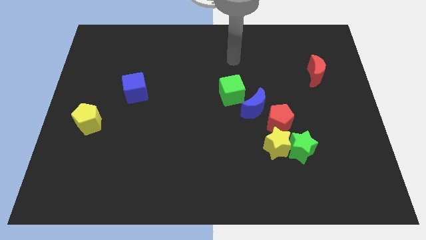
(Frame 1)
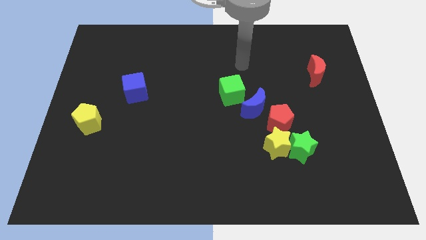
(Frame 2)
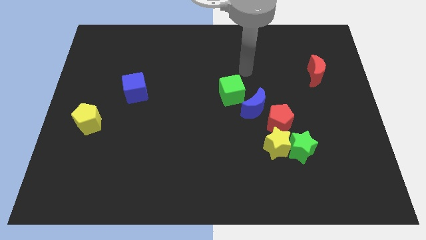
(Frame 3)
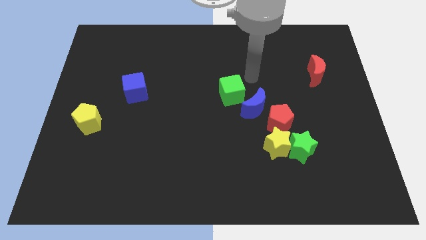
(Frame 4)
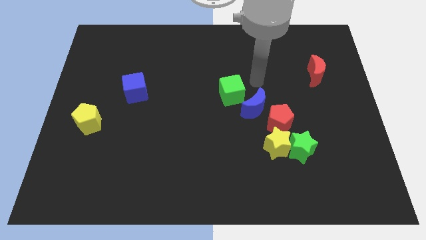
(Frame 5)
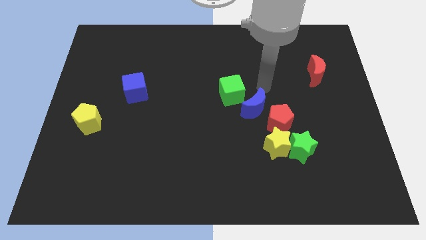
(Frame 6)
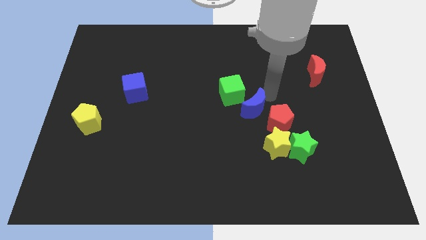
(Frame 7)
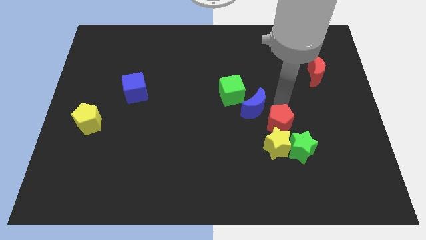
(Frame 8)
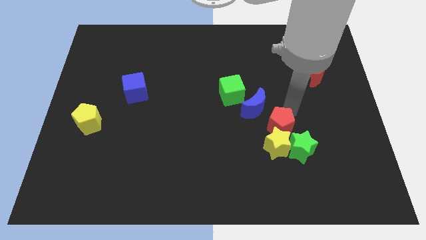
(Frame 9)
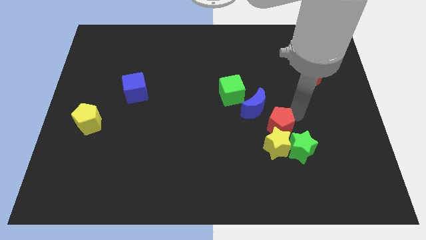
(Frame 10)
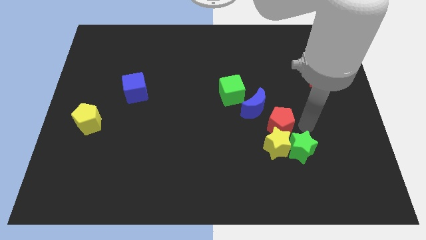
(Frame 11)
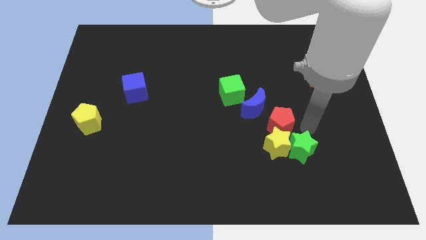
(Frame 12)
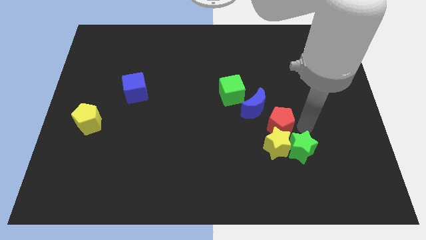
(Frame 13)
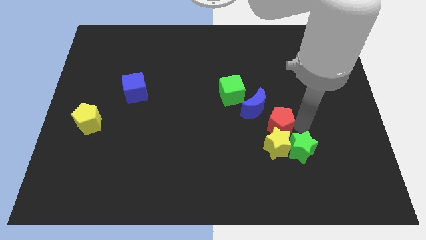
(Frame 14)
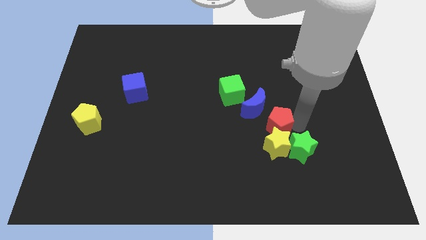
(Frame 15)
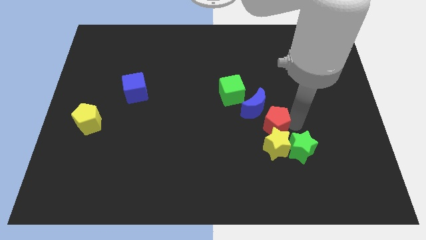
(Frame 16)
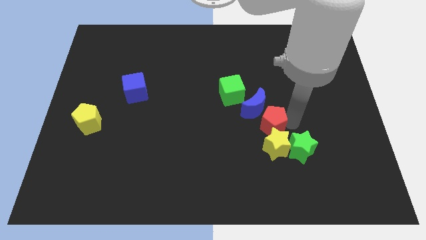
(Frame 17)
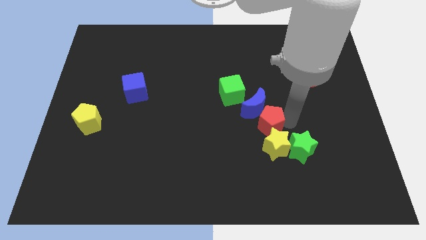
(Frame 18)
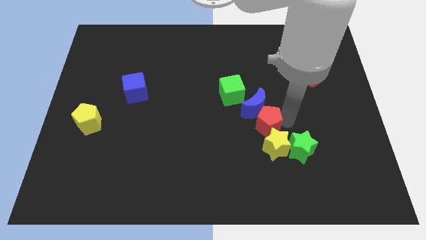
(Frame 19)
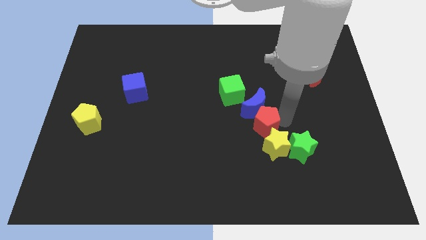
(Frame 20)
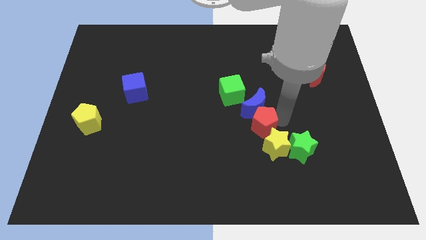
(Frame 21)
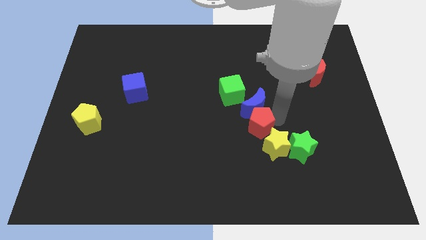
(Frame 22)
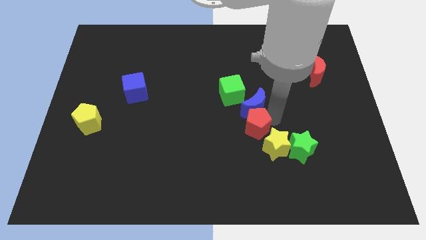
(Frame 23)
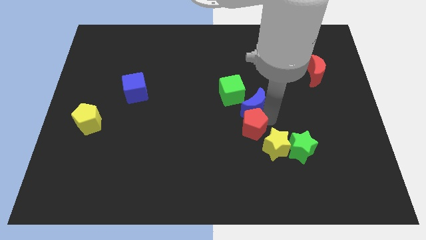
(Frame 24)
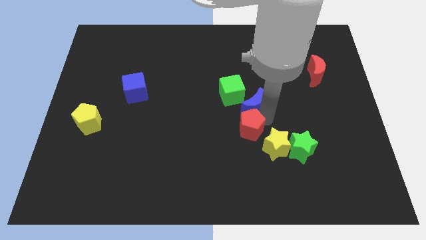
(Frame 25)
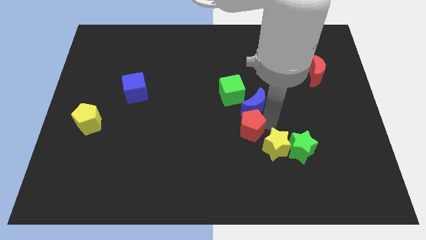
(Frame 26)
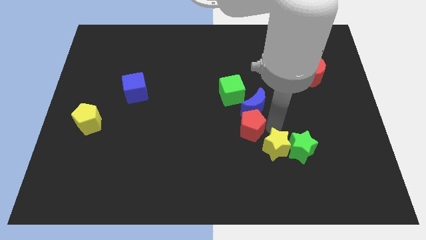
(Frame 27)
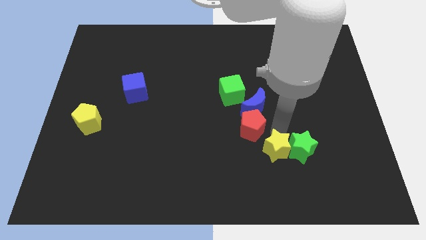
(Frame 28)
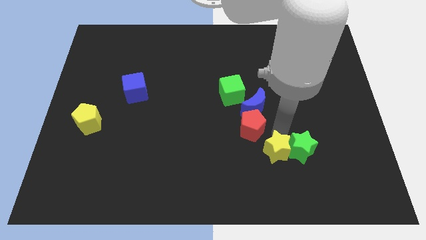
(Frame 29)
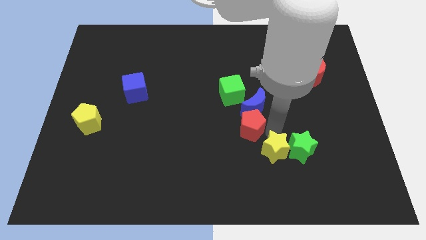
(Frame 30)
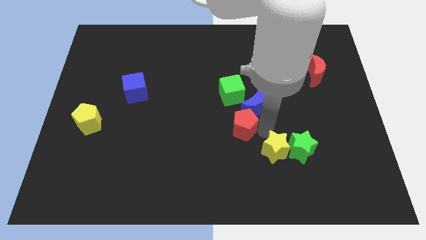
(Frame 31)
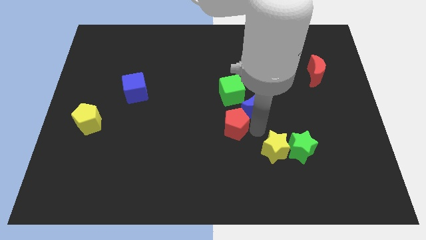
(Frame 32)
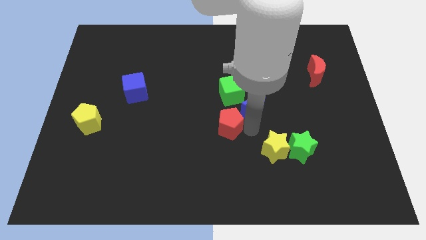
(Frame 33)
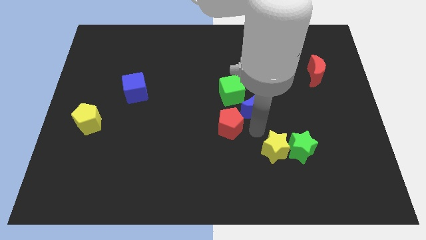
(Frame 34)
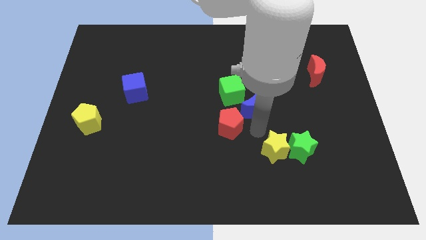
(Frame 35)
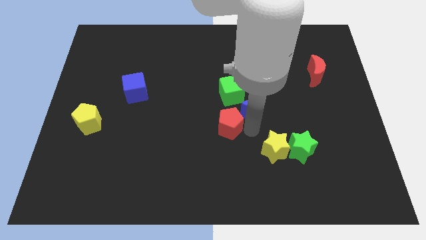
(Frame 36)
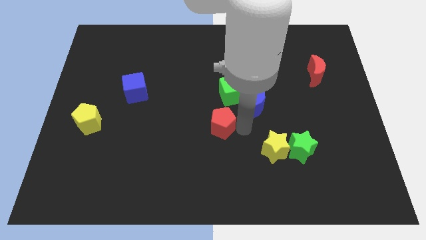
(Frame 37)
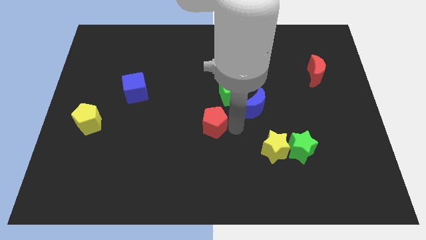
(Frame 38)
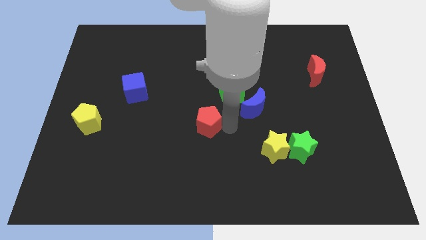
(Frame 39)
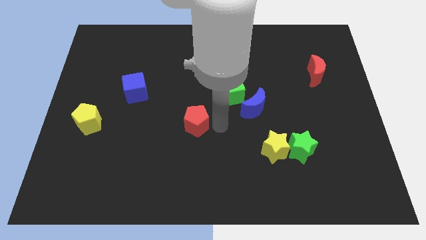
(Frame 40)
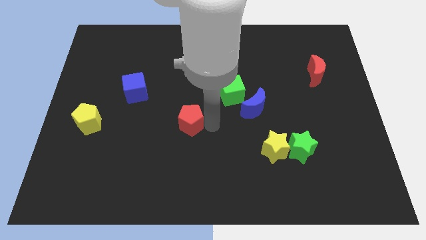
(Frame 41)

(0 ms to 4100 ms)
push the red pentagon to the left

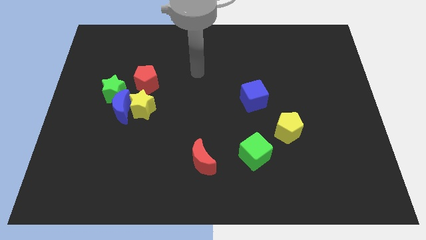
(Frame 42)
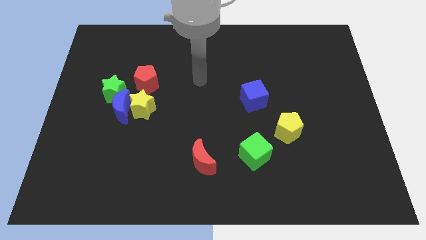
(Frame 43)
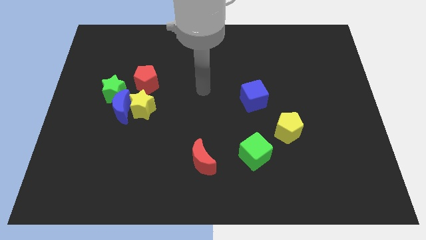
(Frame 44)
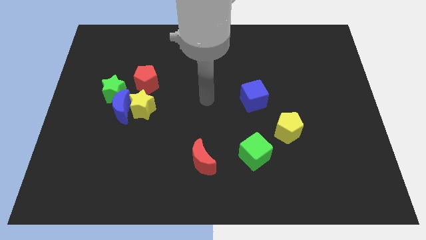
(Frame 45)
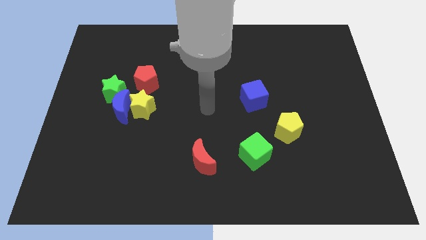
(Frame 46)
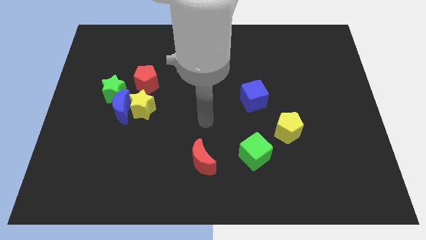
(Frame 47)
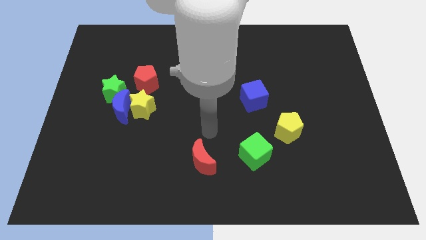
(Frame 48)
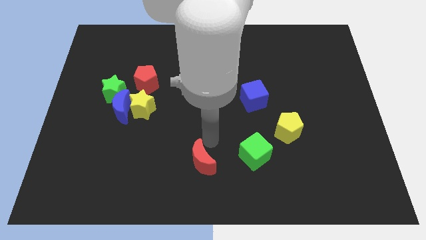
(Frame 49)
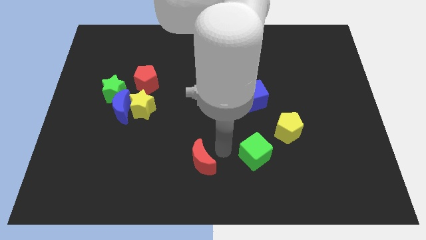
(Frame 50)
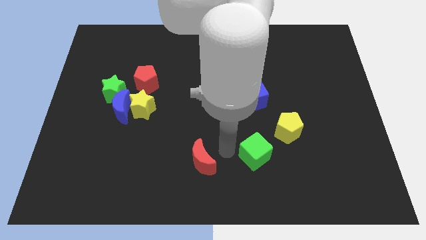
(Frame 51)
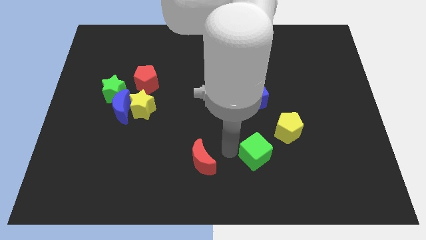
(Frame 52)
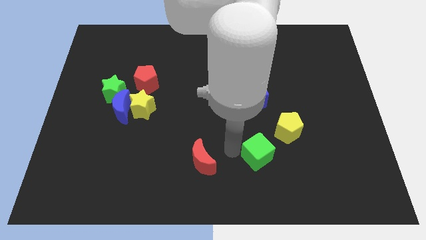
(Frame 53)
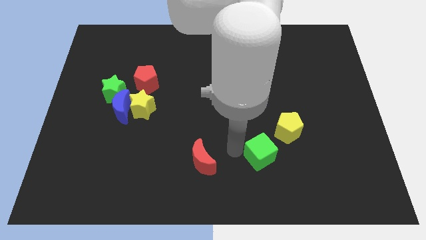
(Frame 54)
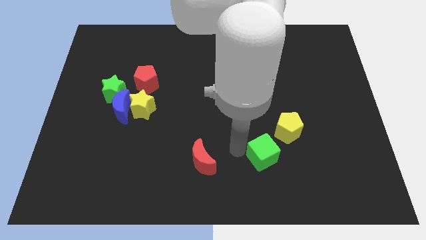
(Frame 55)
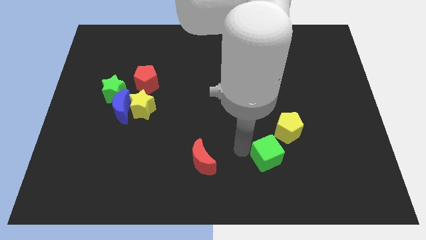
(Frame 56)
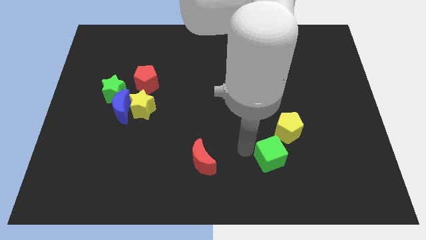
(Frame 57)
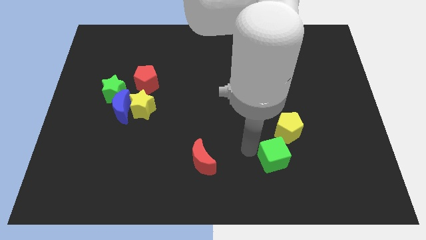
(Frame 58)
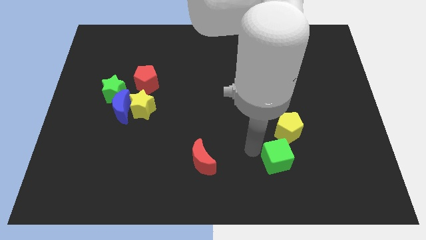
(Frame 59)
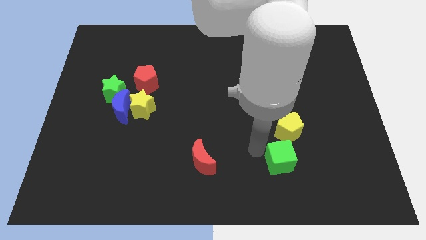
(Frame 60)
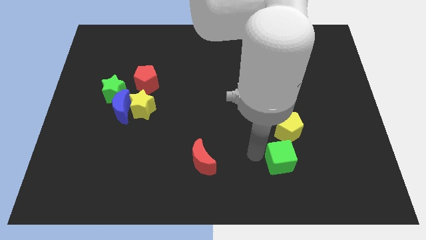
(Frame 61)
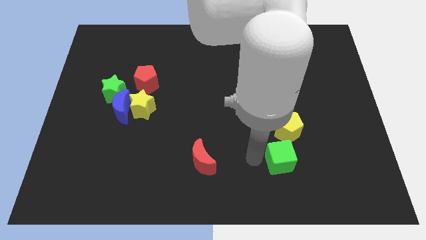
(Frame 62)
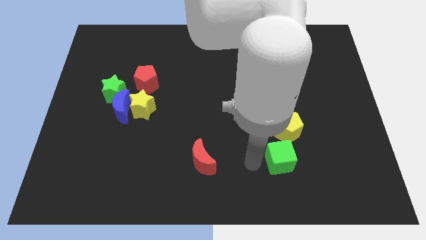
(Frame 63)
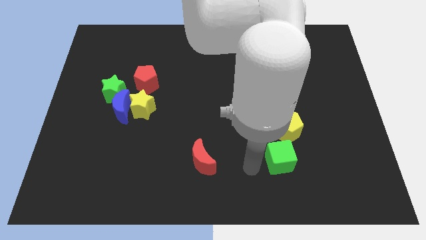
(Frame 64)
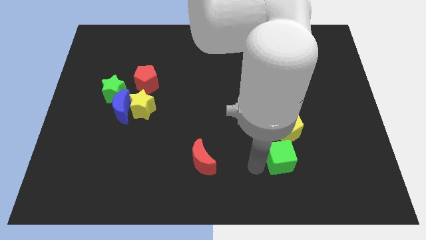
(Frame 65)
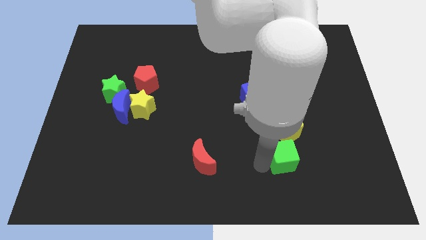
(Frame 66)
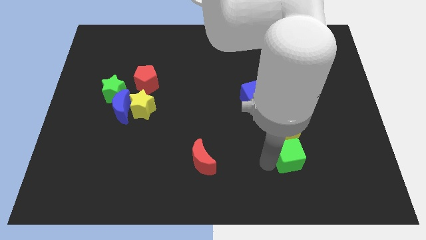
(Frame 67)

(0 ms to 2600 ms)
push the green cube somewhat to the right

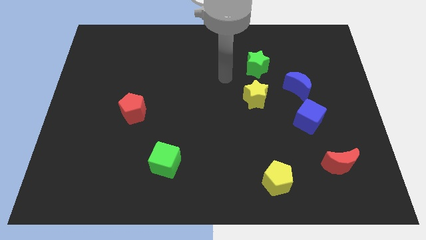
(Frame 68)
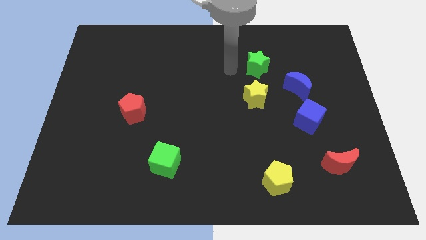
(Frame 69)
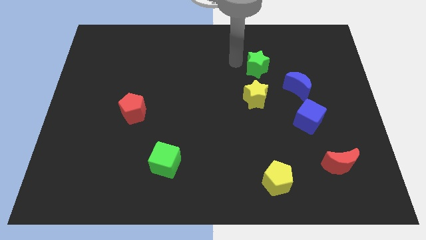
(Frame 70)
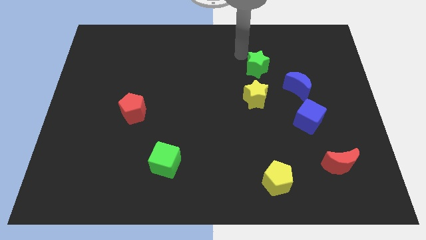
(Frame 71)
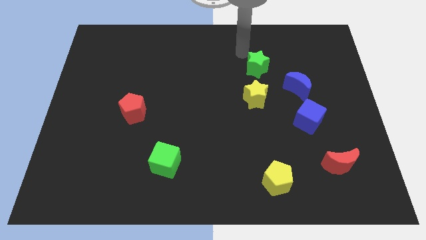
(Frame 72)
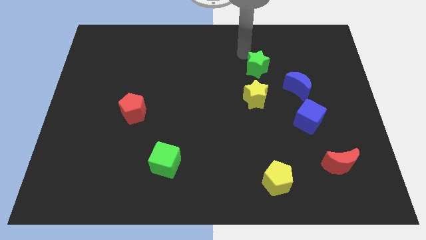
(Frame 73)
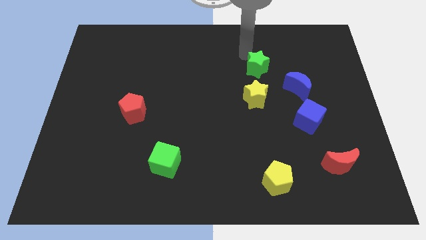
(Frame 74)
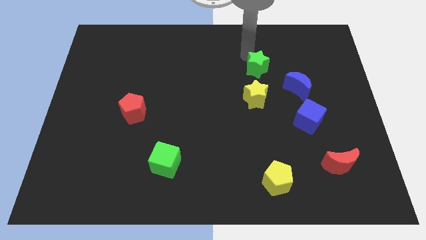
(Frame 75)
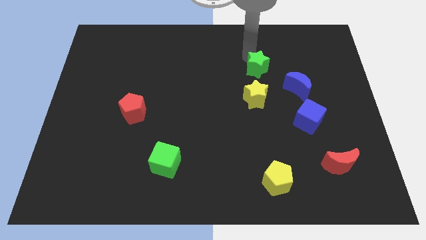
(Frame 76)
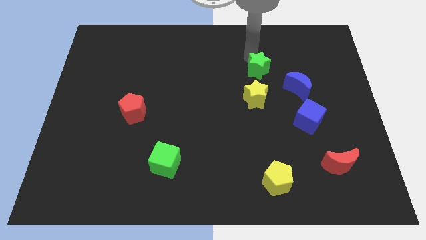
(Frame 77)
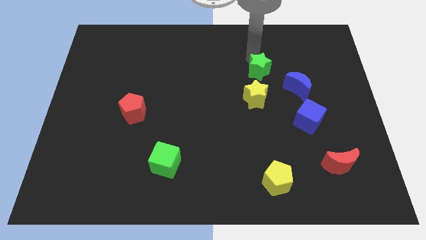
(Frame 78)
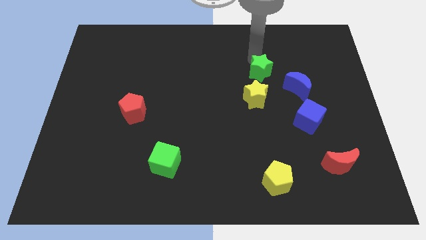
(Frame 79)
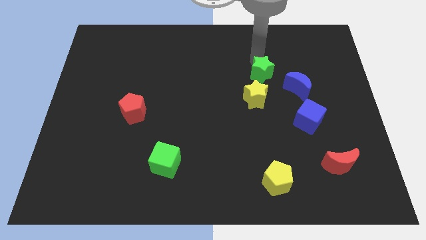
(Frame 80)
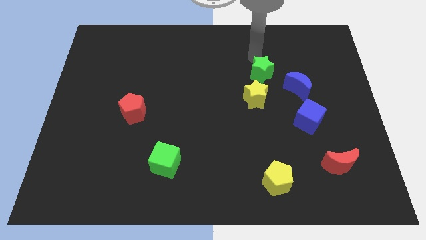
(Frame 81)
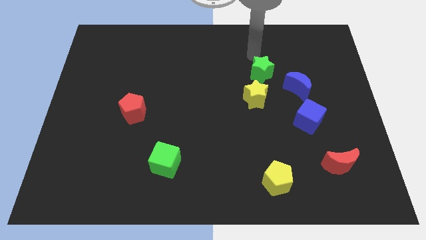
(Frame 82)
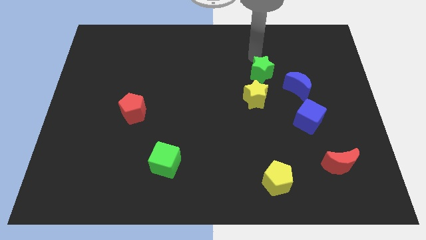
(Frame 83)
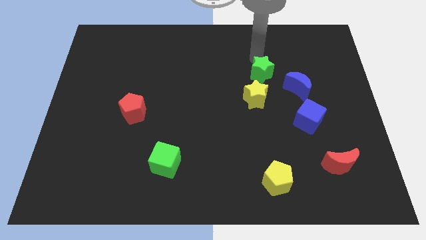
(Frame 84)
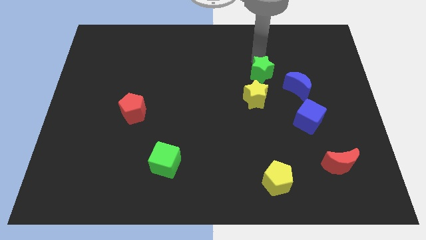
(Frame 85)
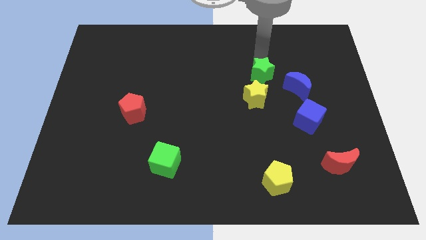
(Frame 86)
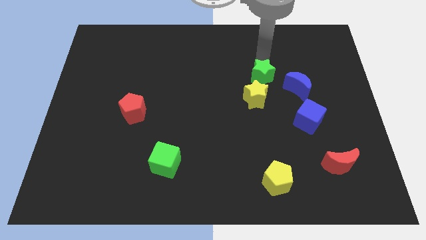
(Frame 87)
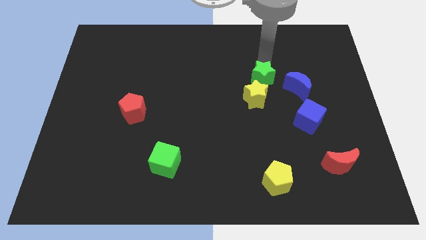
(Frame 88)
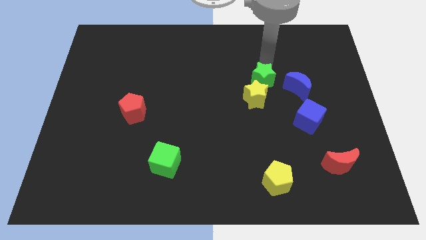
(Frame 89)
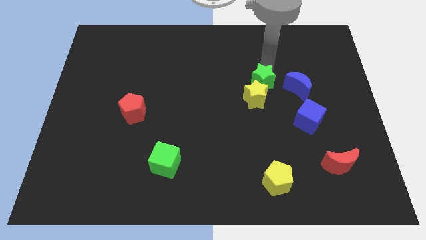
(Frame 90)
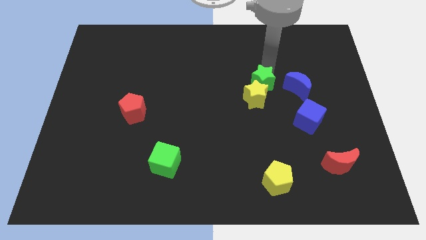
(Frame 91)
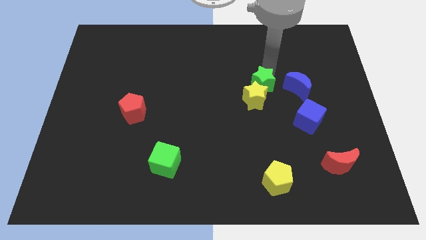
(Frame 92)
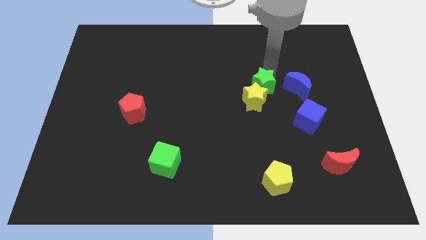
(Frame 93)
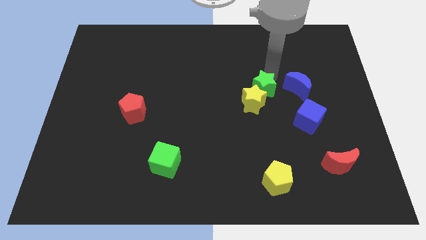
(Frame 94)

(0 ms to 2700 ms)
move the green star a little bit downwards
